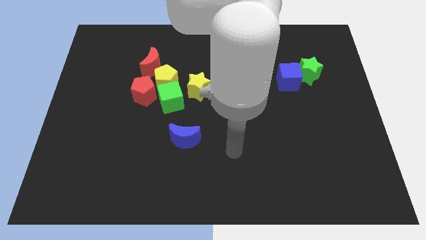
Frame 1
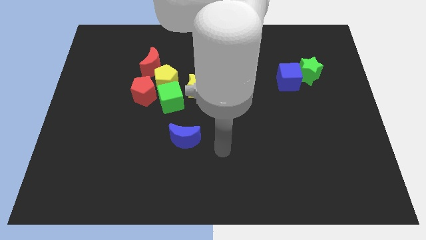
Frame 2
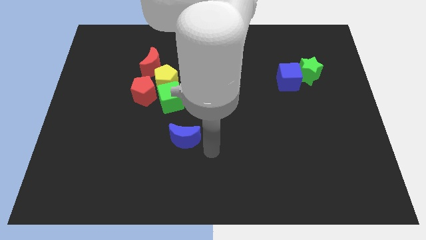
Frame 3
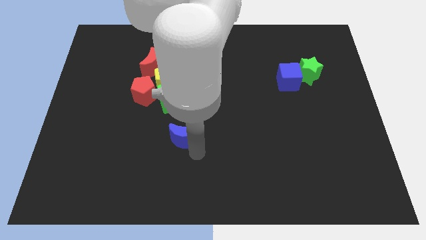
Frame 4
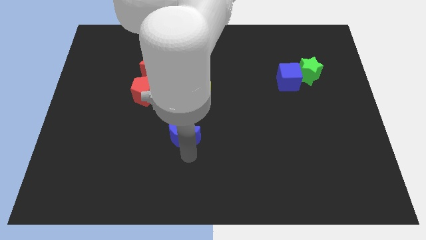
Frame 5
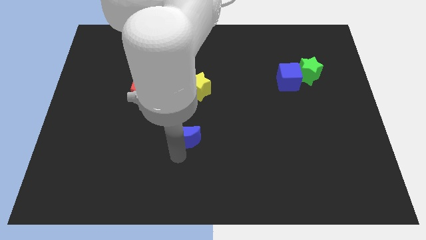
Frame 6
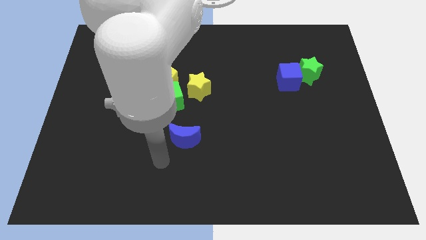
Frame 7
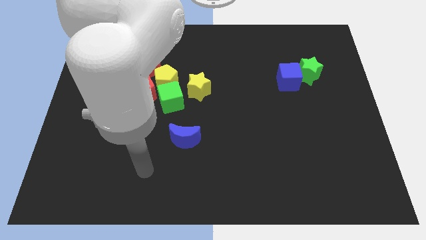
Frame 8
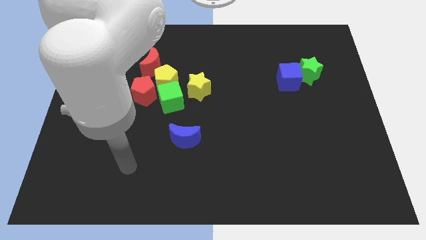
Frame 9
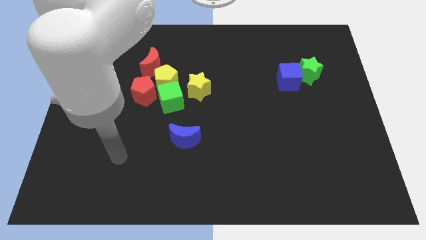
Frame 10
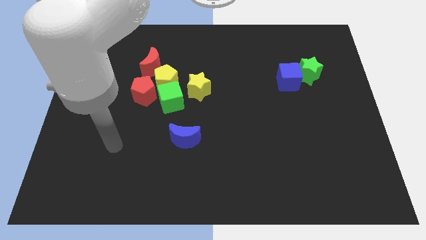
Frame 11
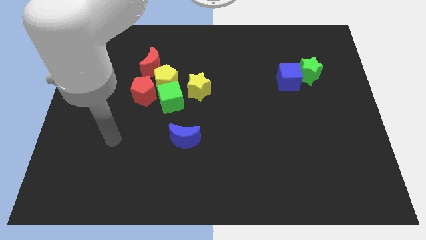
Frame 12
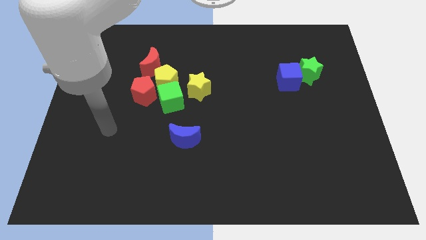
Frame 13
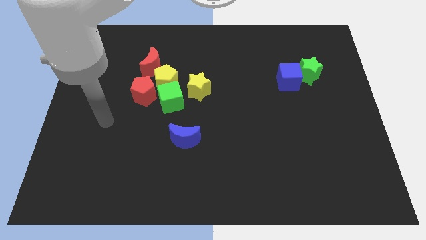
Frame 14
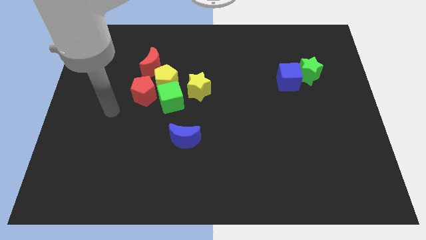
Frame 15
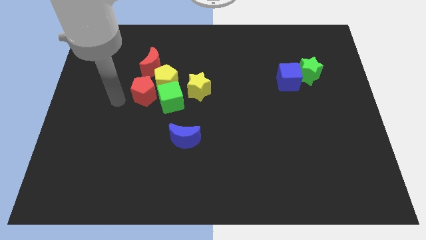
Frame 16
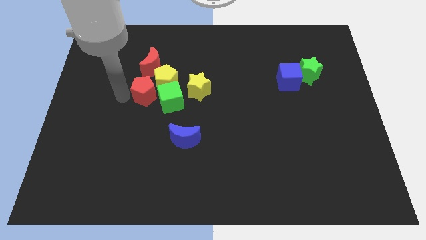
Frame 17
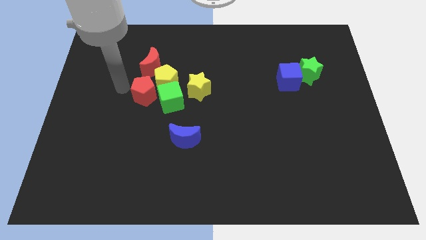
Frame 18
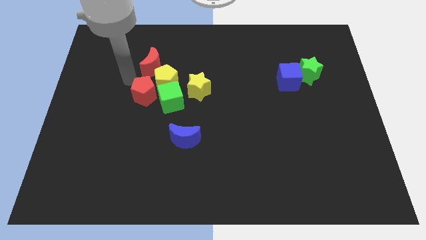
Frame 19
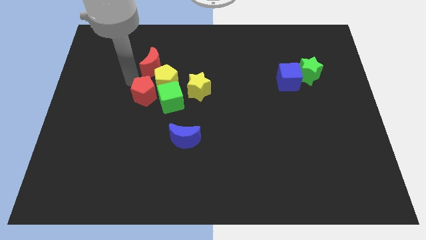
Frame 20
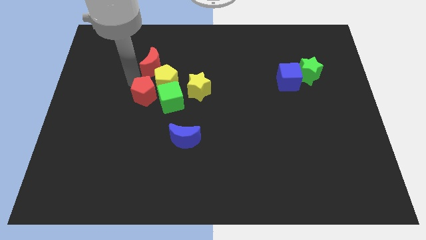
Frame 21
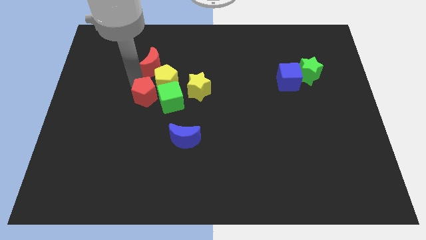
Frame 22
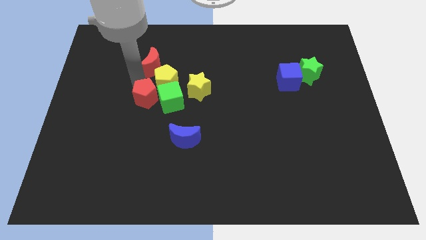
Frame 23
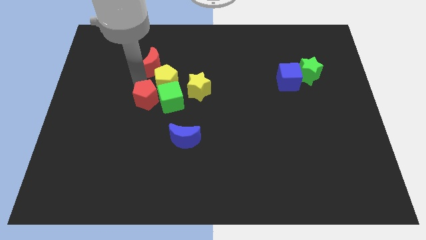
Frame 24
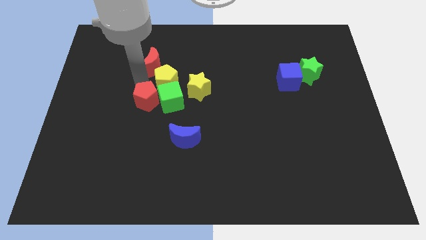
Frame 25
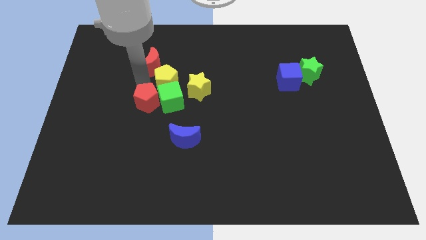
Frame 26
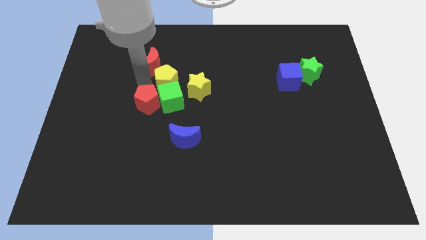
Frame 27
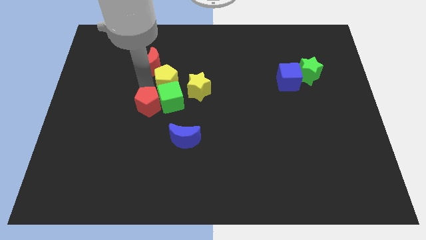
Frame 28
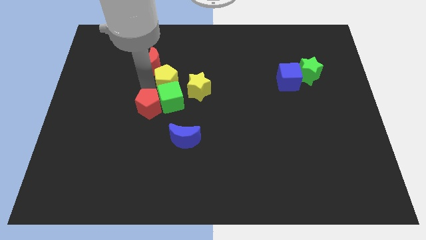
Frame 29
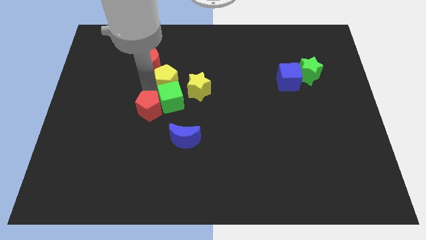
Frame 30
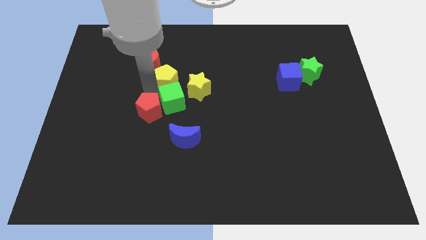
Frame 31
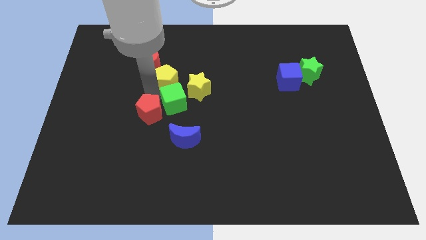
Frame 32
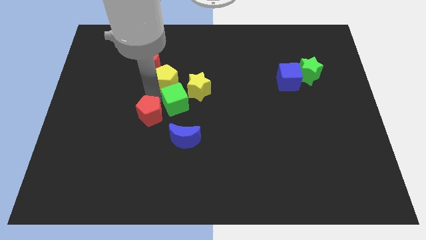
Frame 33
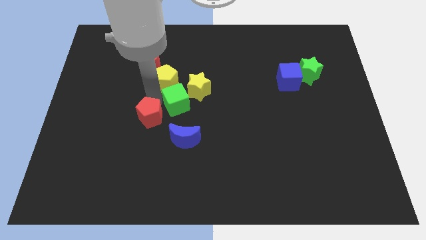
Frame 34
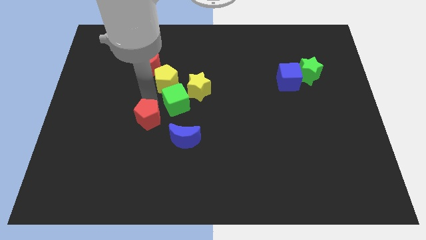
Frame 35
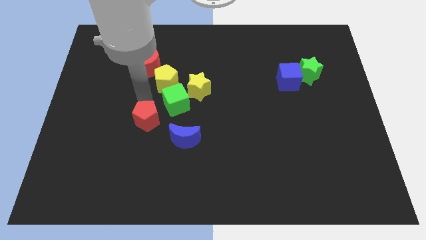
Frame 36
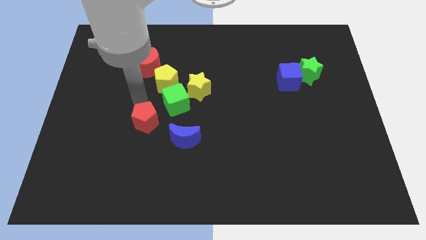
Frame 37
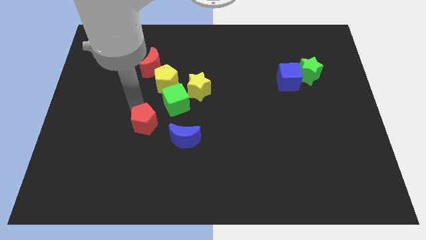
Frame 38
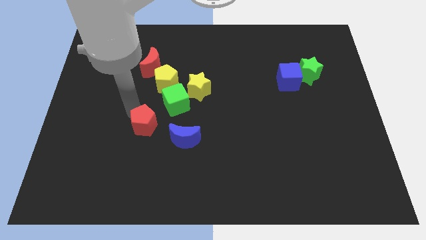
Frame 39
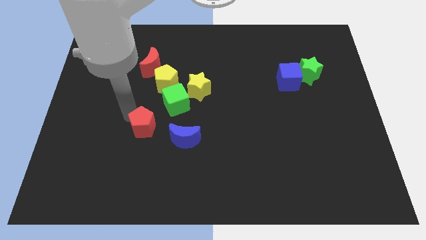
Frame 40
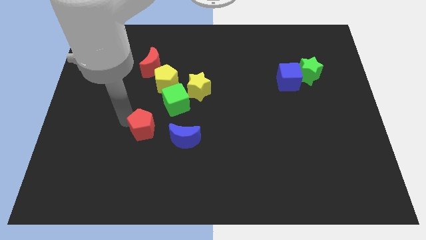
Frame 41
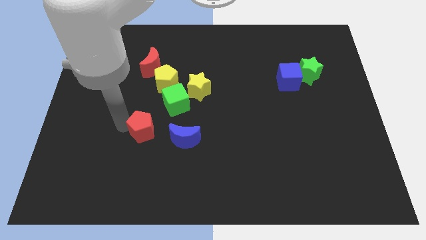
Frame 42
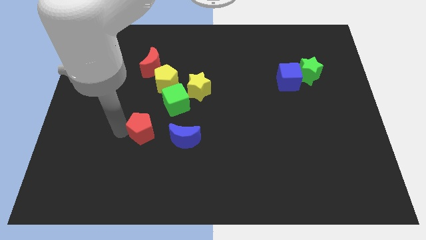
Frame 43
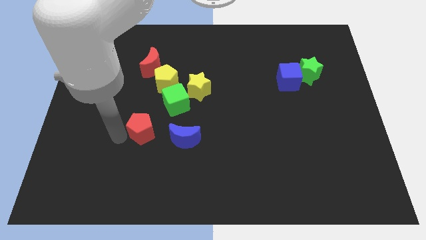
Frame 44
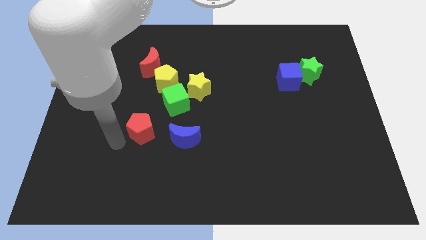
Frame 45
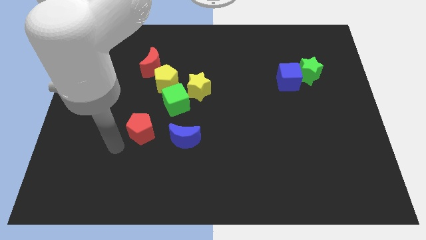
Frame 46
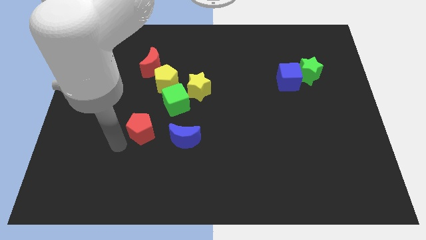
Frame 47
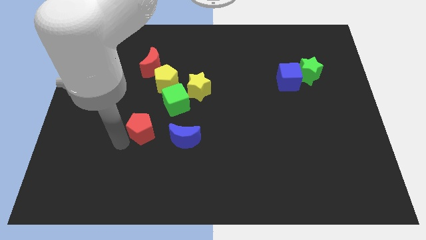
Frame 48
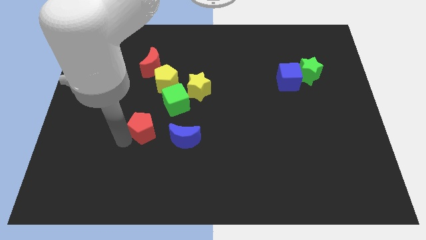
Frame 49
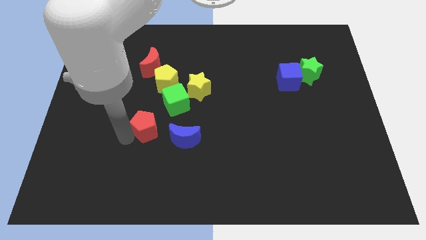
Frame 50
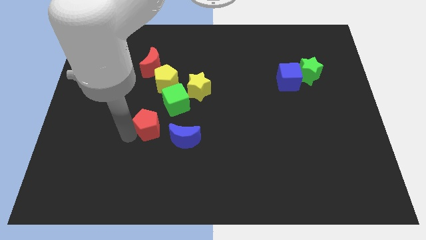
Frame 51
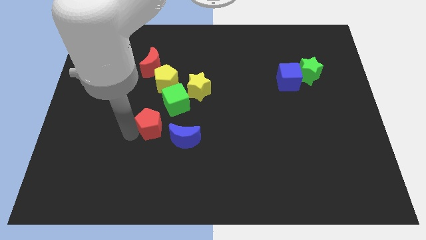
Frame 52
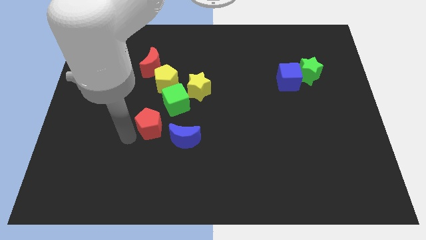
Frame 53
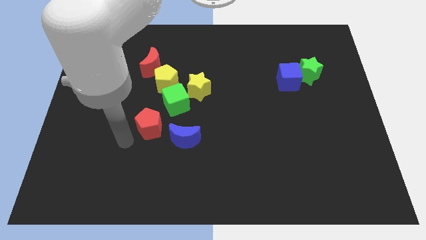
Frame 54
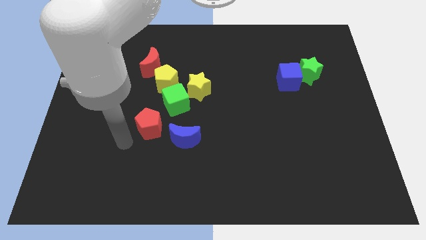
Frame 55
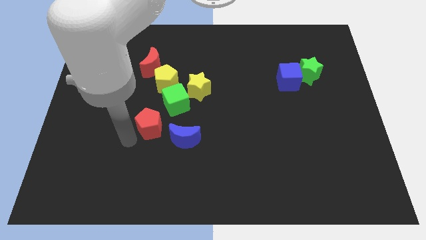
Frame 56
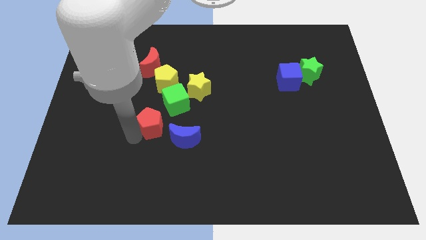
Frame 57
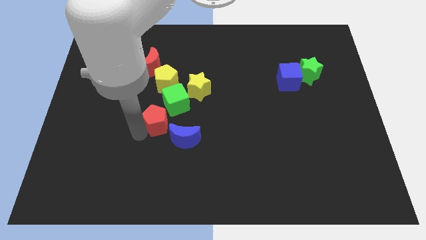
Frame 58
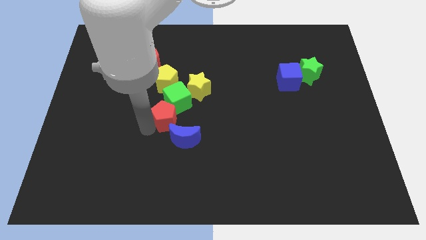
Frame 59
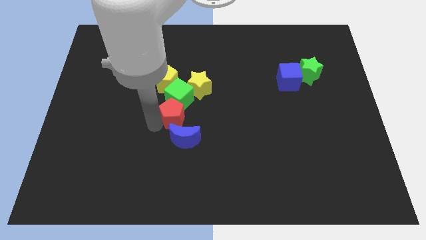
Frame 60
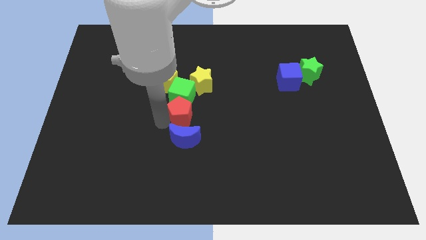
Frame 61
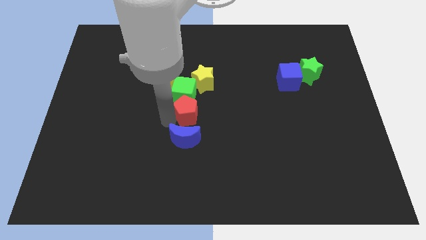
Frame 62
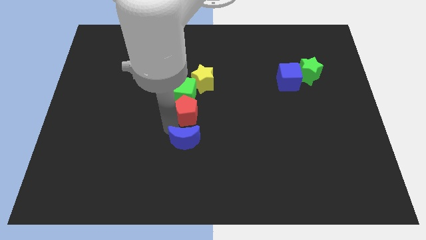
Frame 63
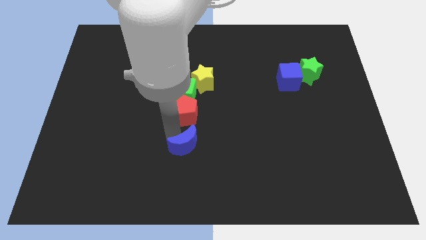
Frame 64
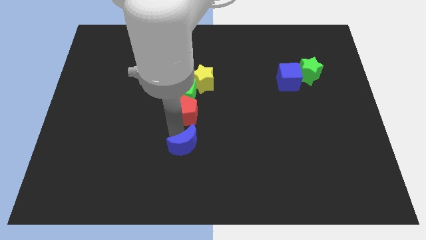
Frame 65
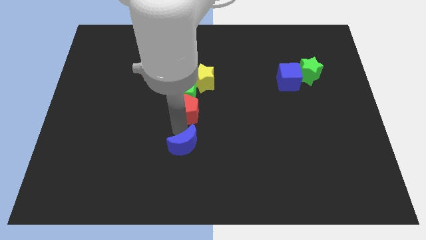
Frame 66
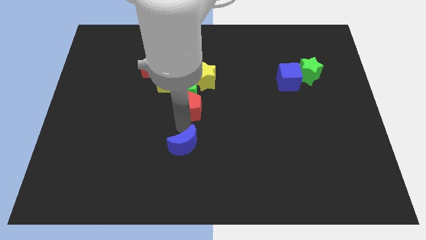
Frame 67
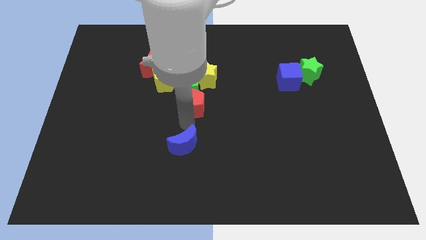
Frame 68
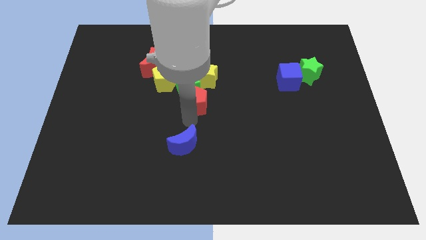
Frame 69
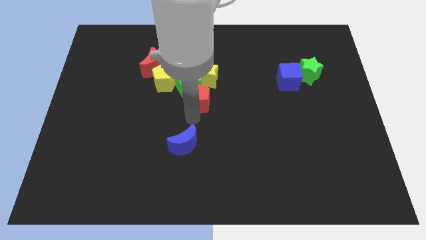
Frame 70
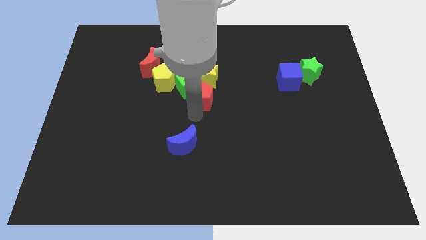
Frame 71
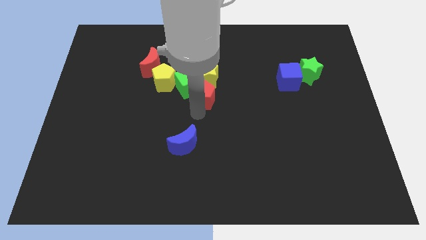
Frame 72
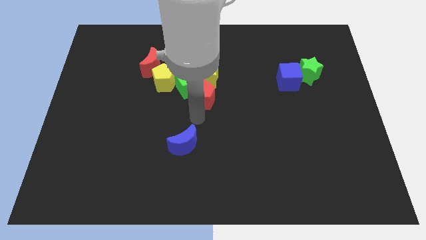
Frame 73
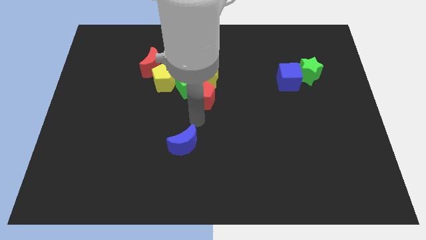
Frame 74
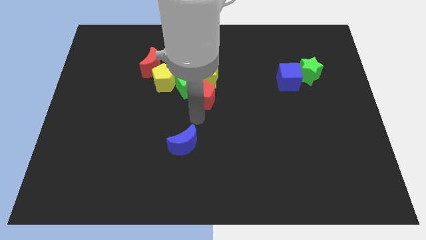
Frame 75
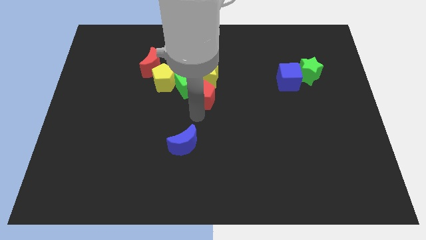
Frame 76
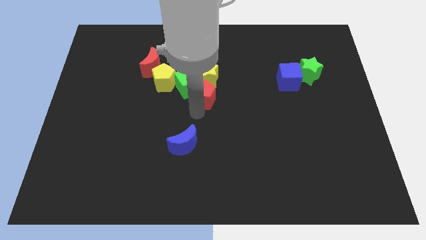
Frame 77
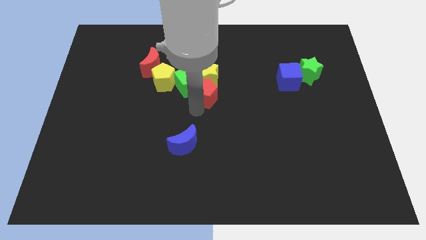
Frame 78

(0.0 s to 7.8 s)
put the red pentagon to the yellow star

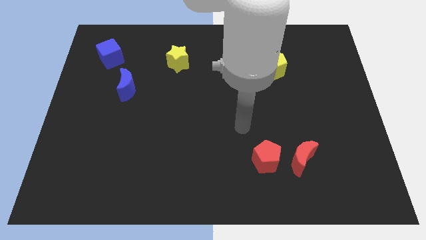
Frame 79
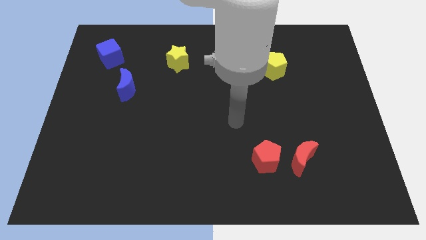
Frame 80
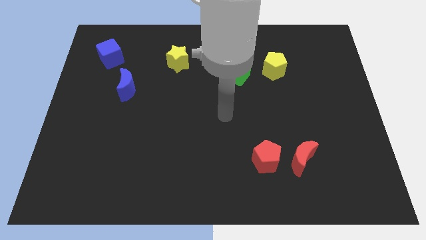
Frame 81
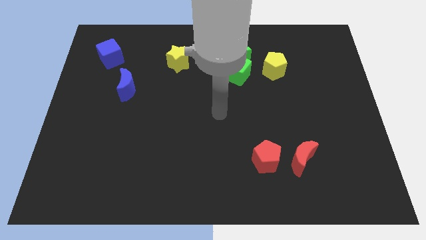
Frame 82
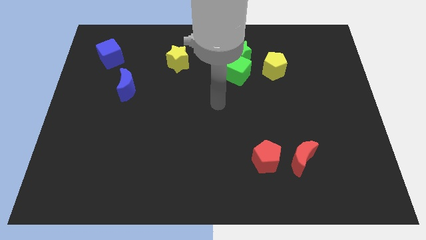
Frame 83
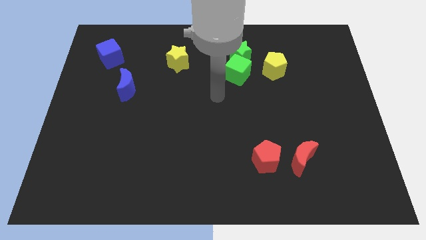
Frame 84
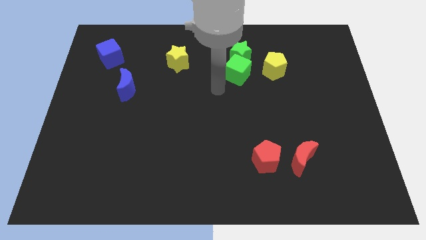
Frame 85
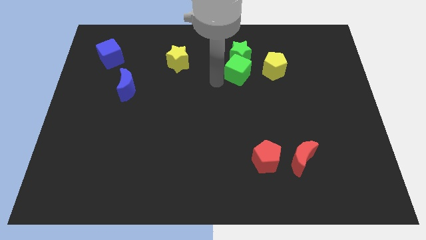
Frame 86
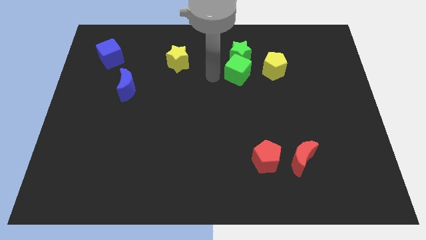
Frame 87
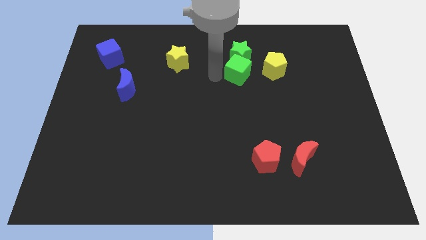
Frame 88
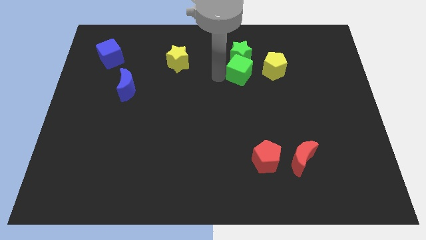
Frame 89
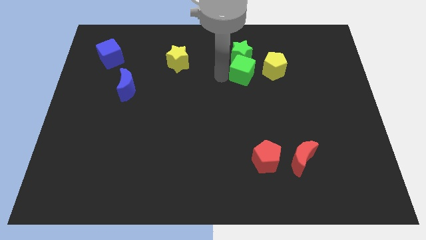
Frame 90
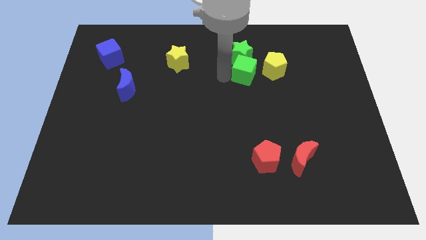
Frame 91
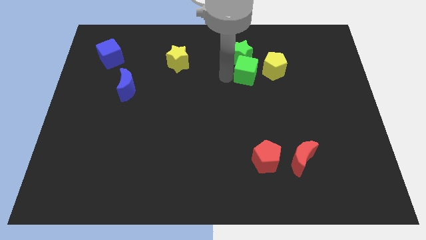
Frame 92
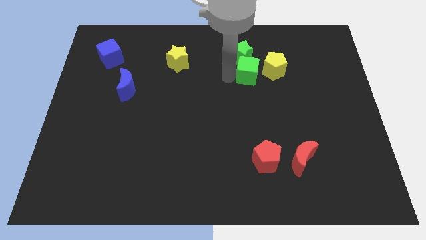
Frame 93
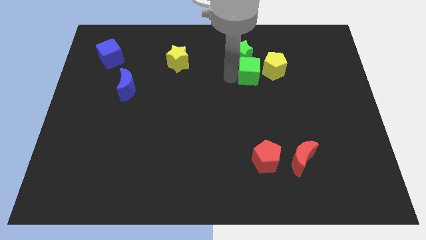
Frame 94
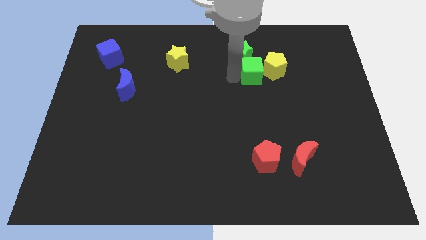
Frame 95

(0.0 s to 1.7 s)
move the green cube next to the yellow pentagon
